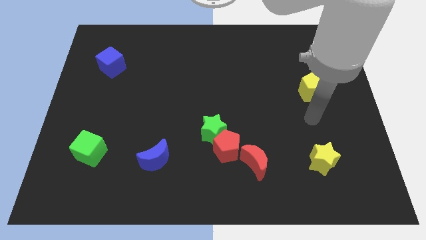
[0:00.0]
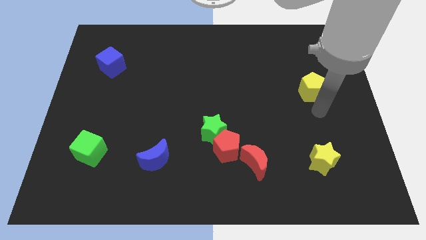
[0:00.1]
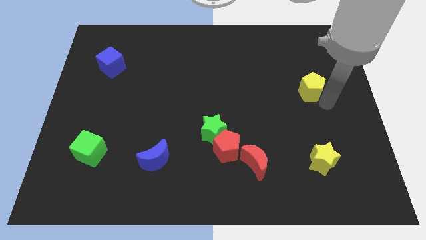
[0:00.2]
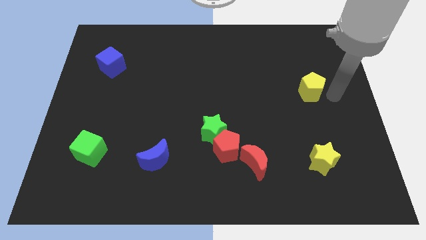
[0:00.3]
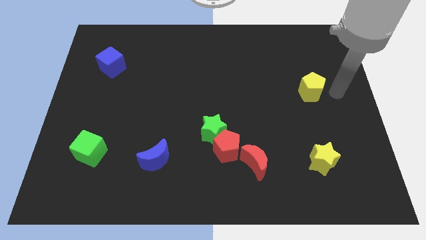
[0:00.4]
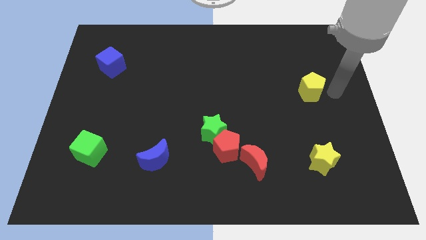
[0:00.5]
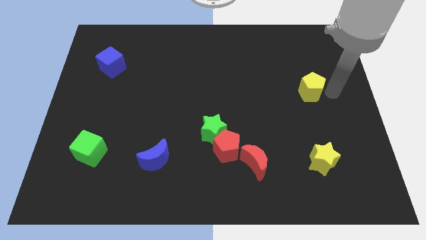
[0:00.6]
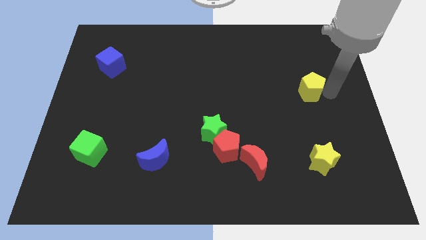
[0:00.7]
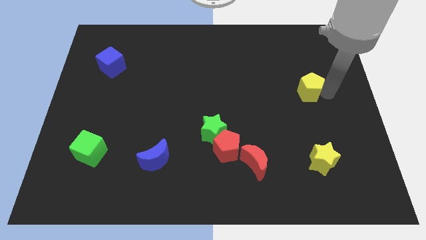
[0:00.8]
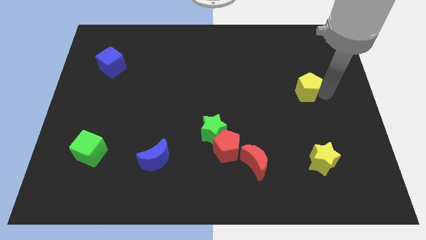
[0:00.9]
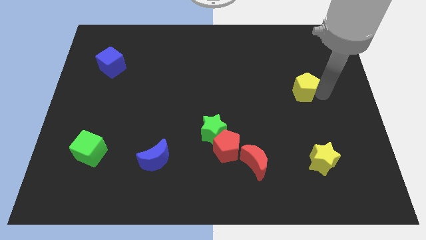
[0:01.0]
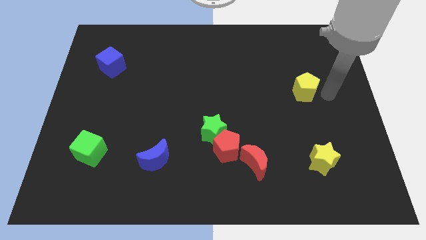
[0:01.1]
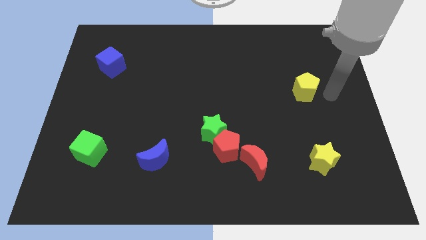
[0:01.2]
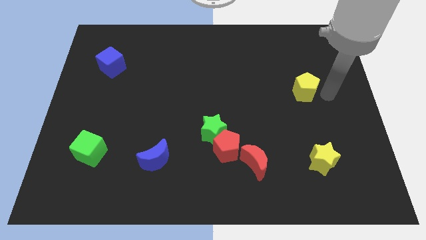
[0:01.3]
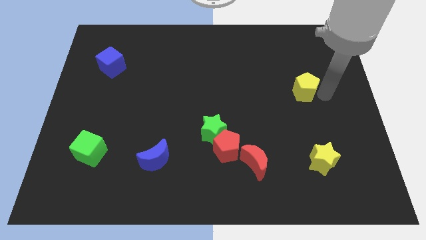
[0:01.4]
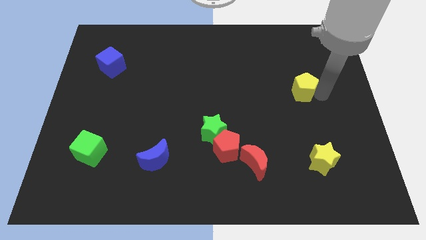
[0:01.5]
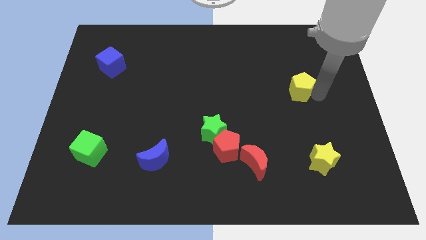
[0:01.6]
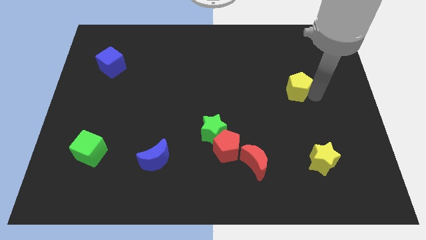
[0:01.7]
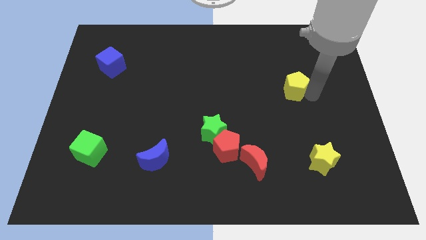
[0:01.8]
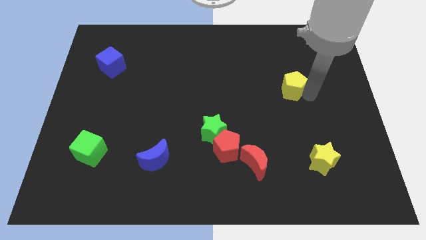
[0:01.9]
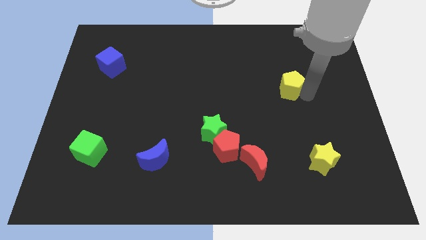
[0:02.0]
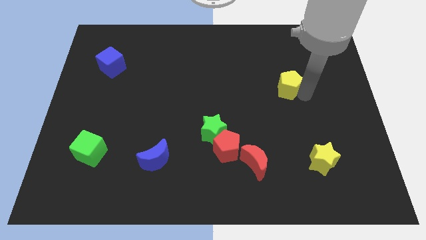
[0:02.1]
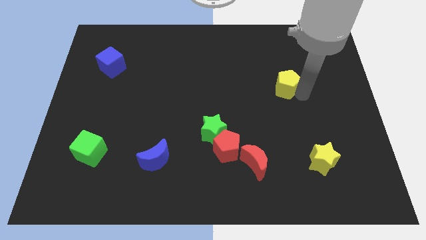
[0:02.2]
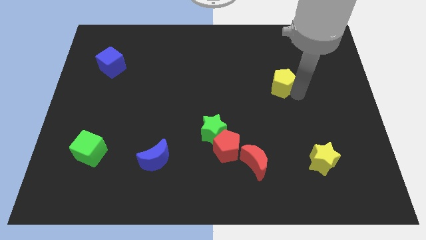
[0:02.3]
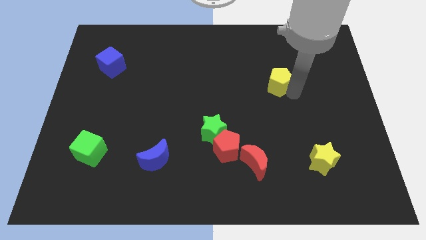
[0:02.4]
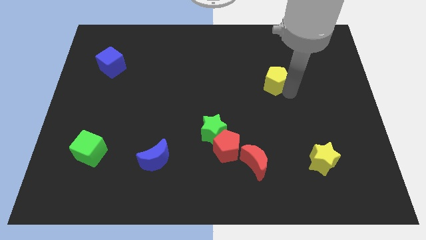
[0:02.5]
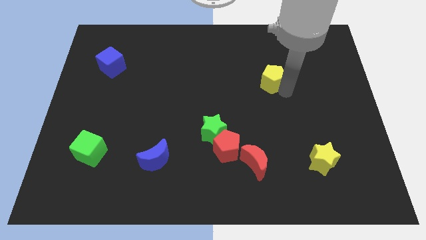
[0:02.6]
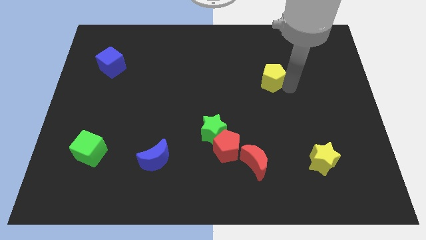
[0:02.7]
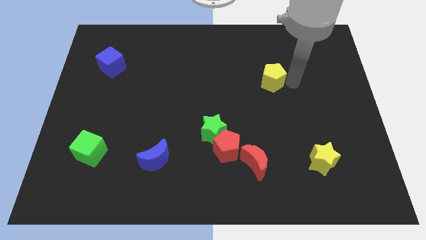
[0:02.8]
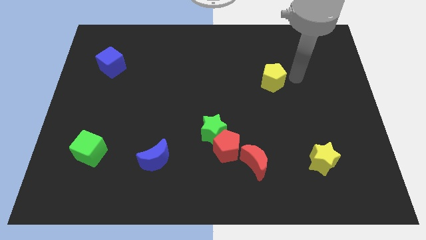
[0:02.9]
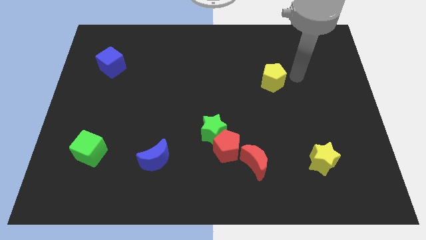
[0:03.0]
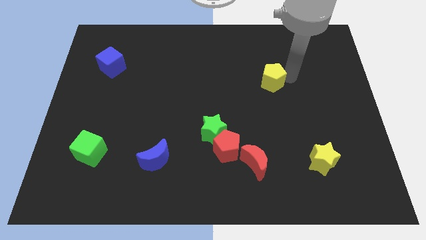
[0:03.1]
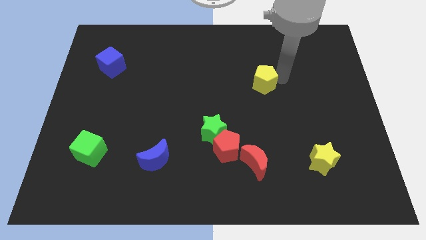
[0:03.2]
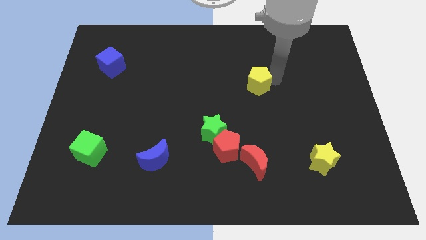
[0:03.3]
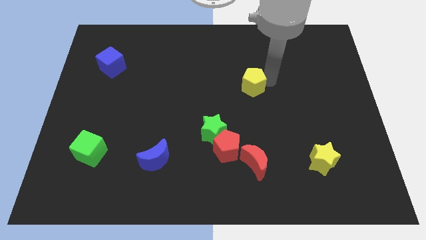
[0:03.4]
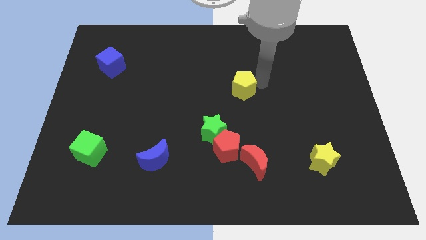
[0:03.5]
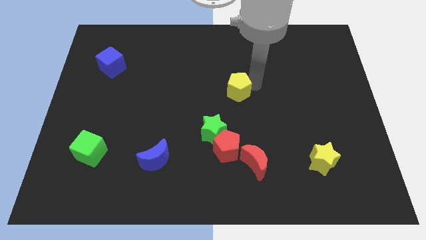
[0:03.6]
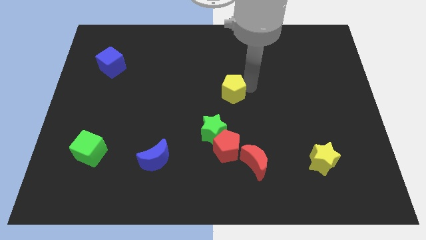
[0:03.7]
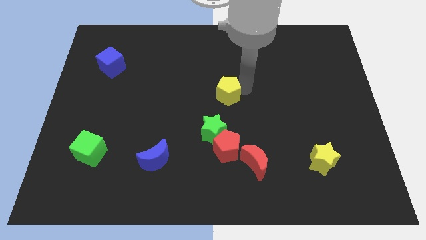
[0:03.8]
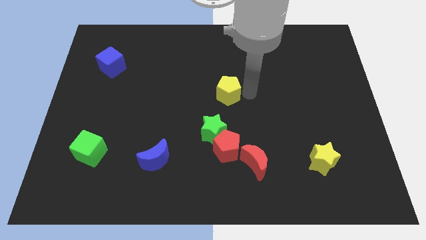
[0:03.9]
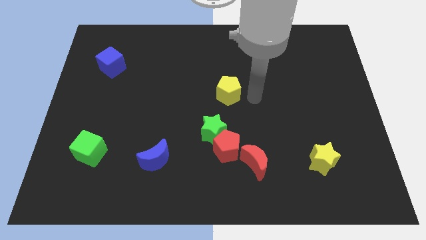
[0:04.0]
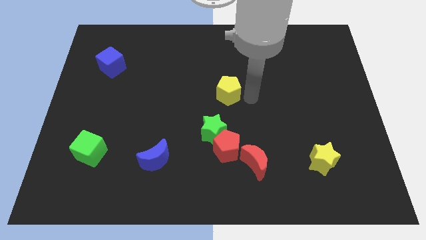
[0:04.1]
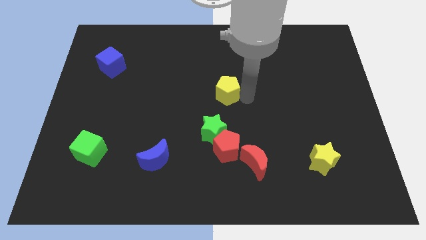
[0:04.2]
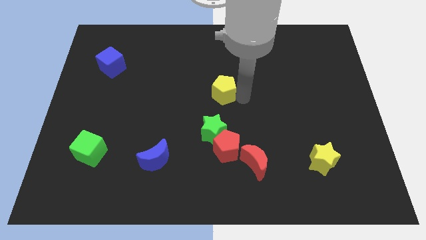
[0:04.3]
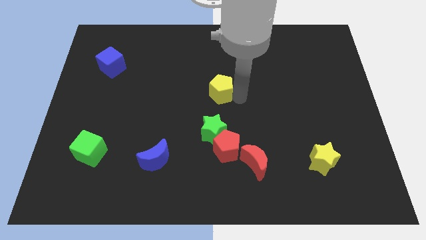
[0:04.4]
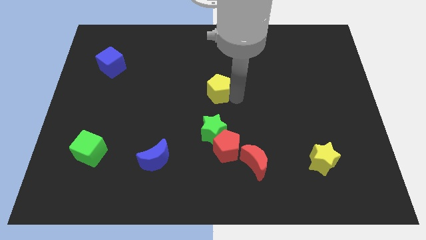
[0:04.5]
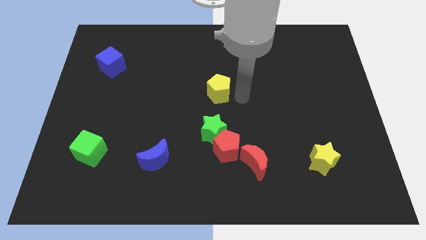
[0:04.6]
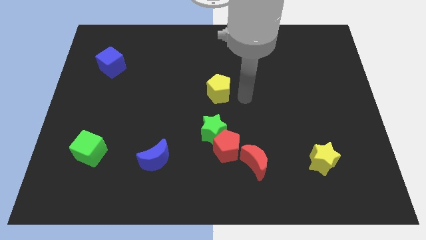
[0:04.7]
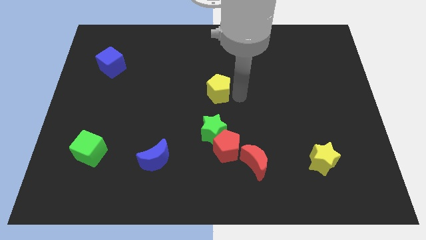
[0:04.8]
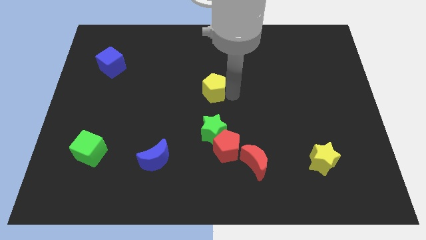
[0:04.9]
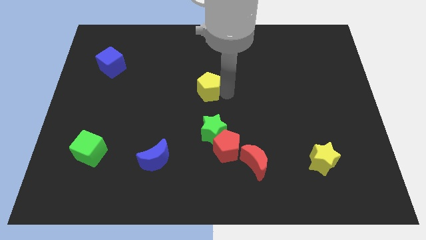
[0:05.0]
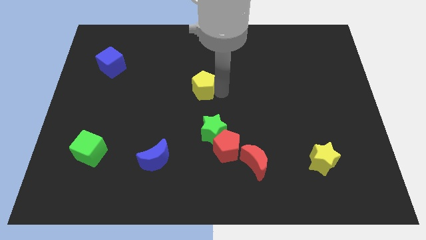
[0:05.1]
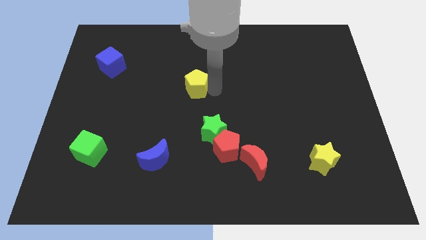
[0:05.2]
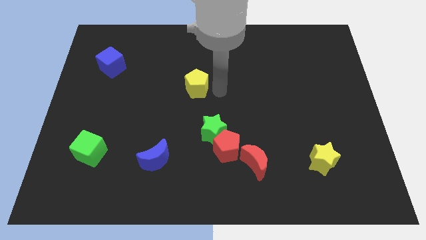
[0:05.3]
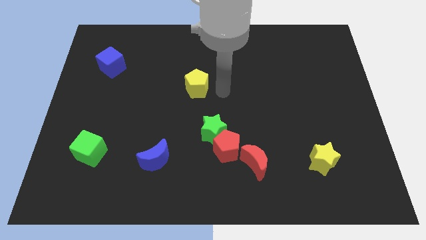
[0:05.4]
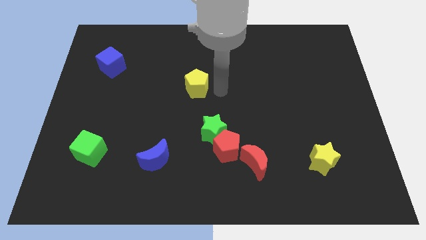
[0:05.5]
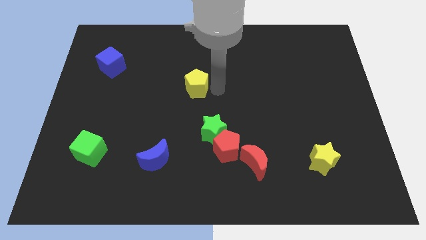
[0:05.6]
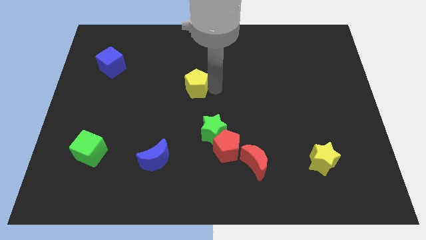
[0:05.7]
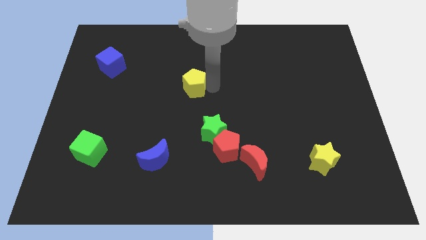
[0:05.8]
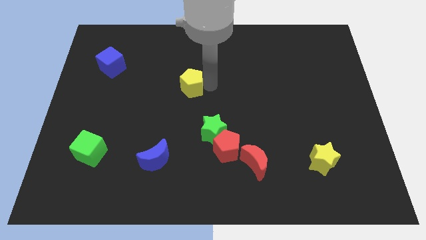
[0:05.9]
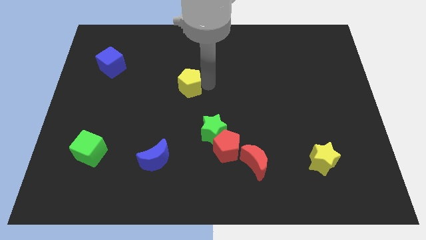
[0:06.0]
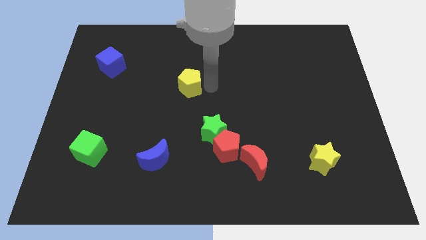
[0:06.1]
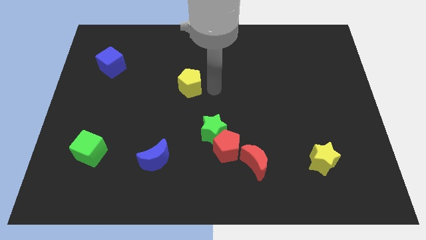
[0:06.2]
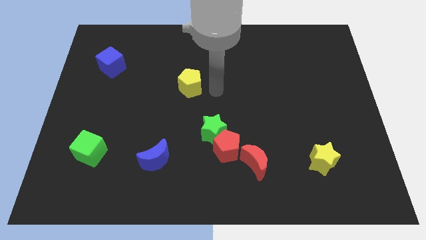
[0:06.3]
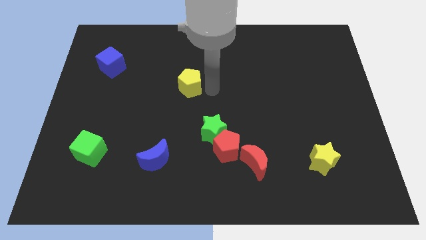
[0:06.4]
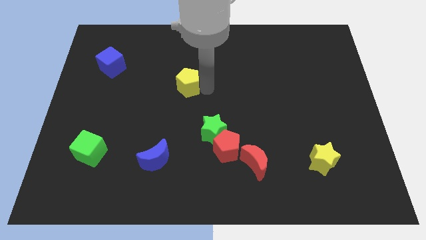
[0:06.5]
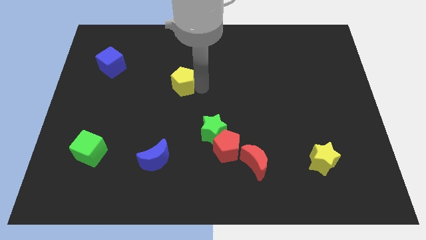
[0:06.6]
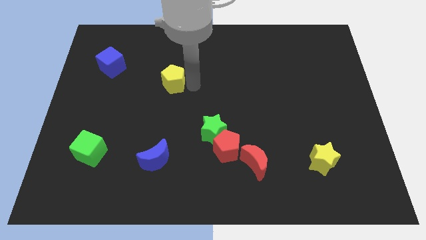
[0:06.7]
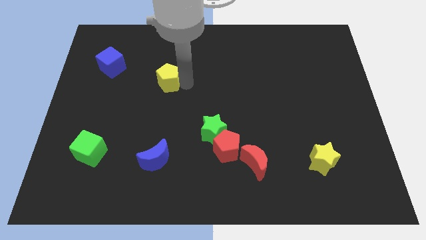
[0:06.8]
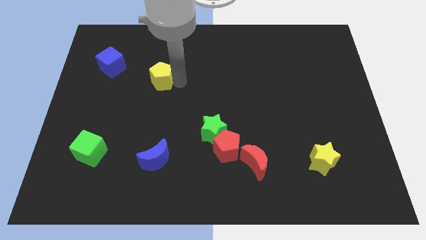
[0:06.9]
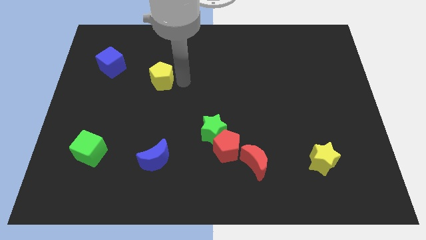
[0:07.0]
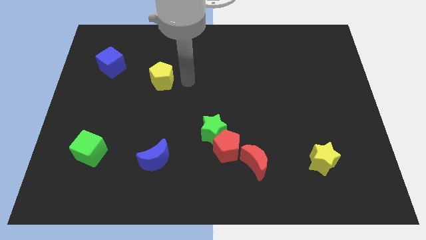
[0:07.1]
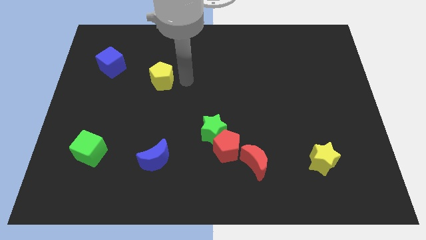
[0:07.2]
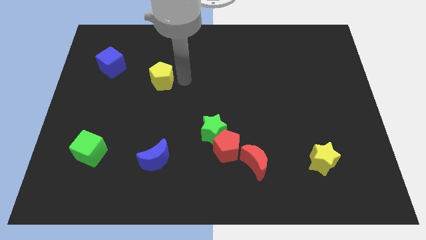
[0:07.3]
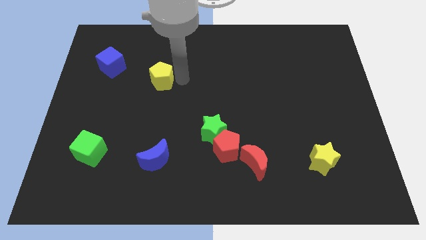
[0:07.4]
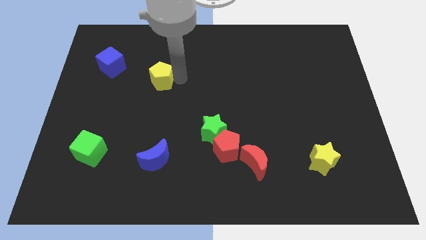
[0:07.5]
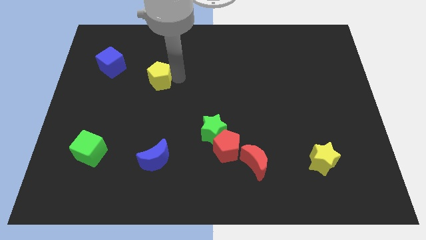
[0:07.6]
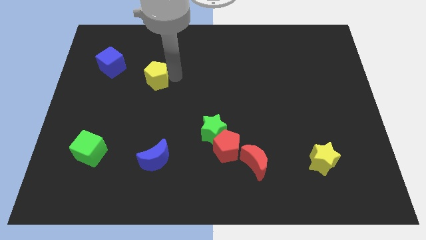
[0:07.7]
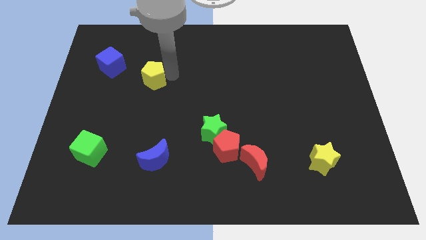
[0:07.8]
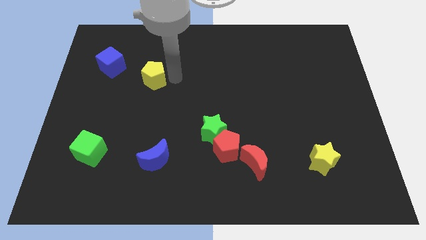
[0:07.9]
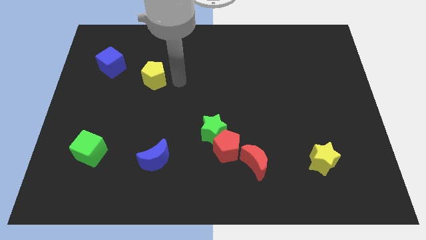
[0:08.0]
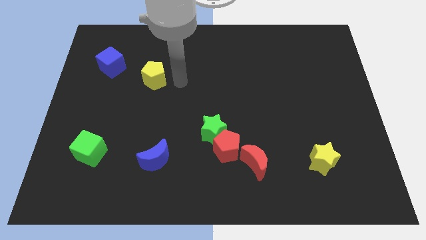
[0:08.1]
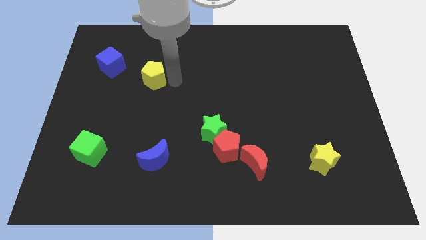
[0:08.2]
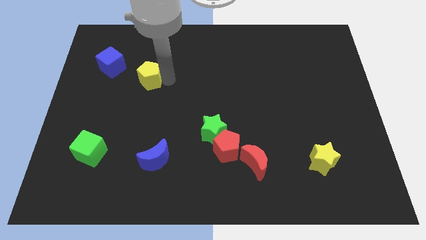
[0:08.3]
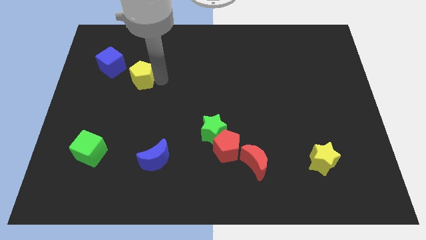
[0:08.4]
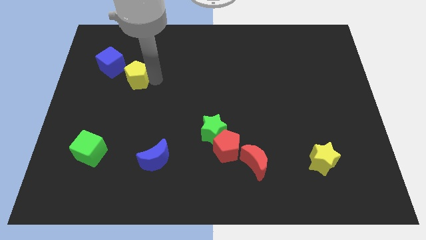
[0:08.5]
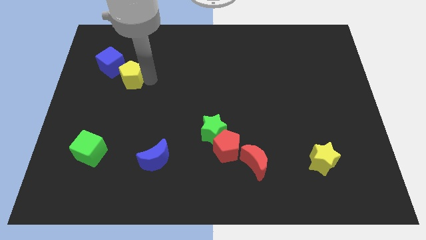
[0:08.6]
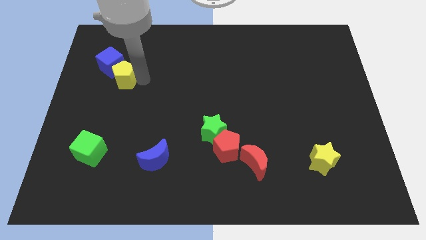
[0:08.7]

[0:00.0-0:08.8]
put the yellow pentagon to the blue cube
